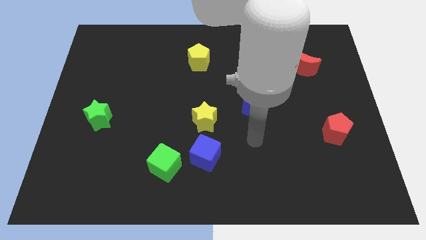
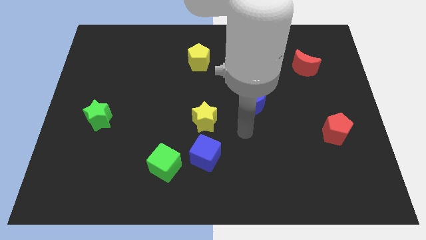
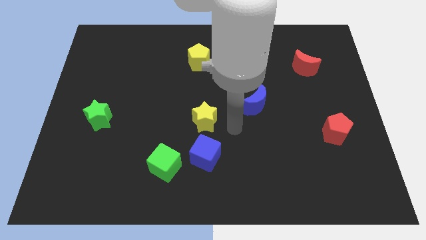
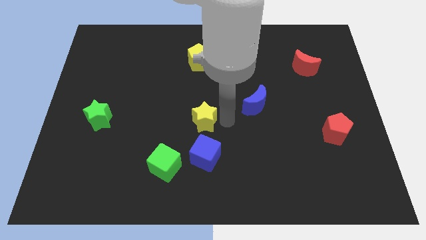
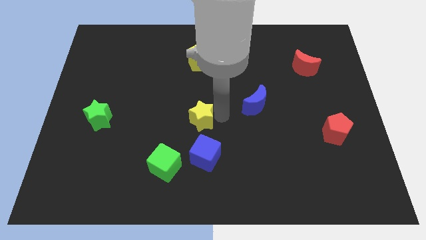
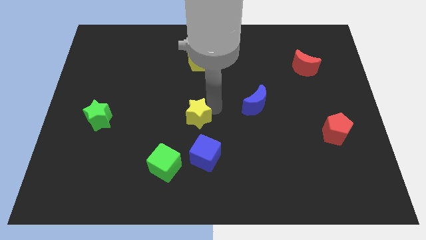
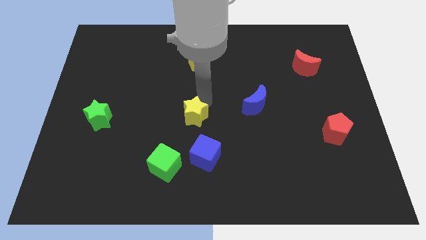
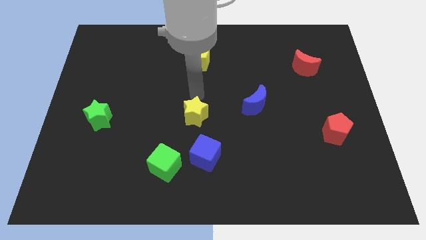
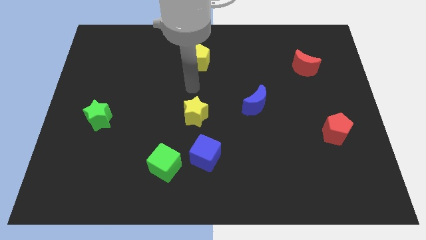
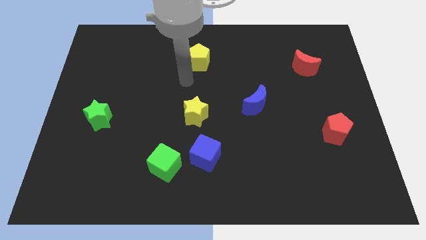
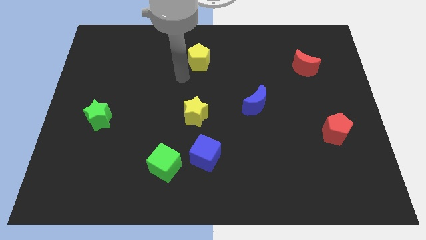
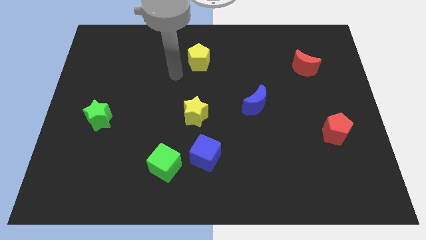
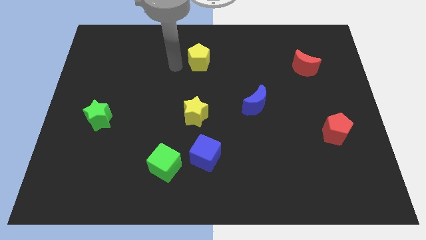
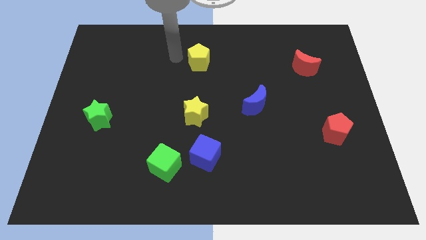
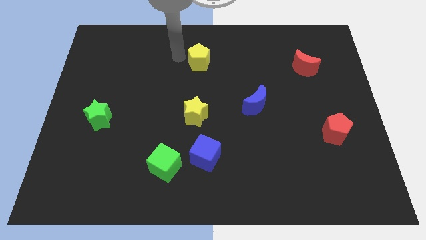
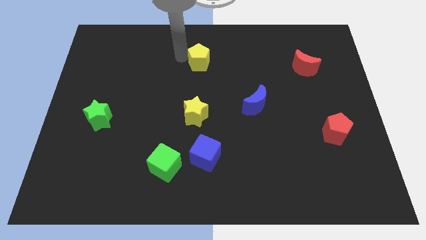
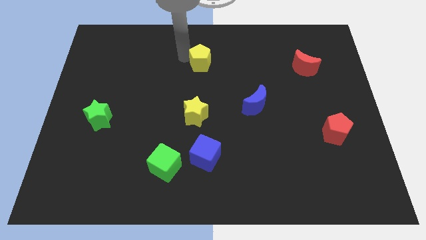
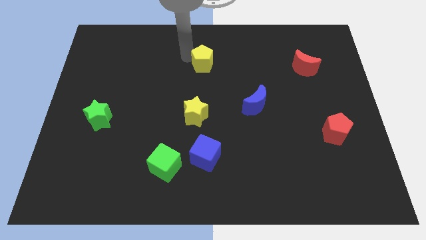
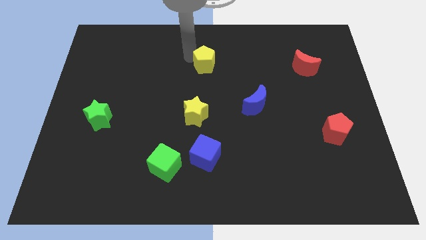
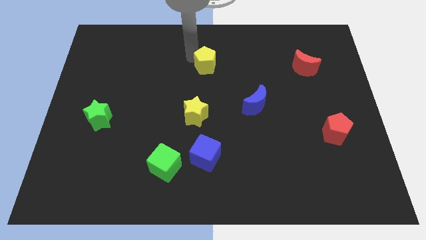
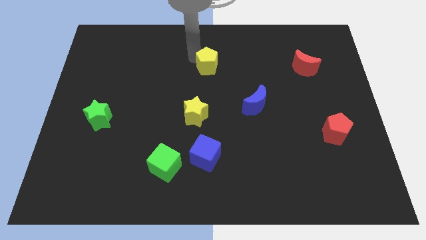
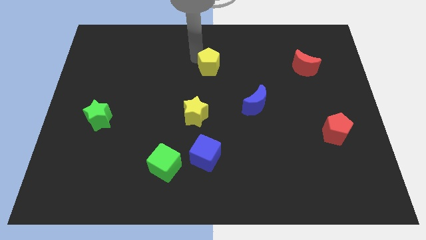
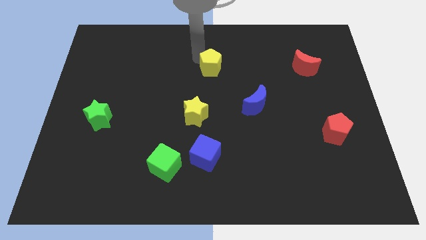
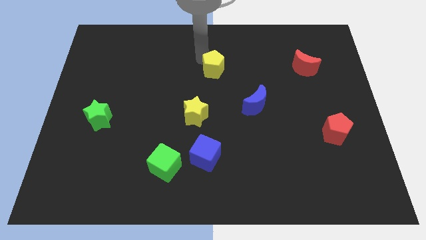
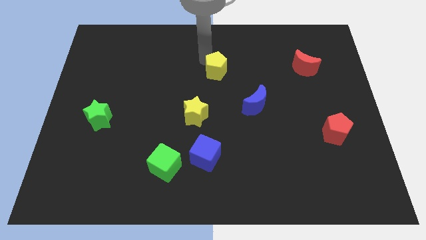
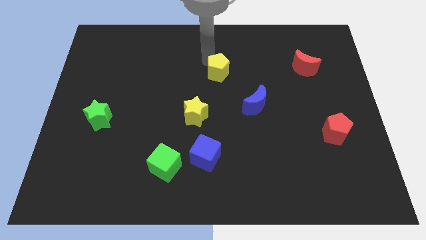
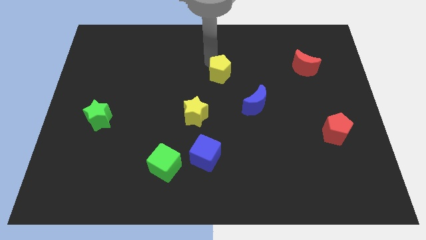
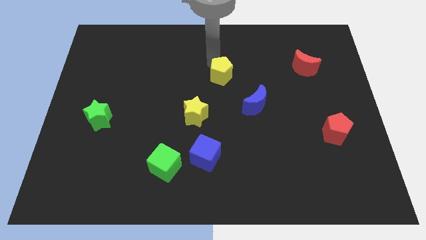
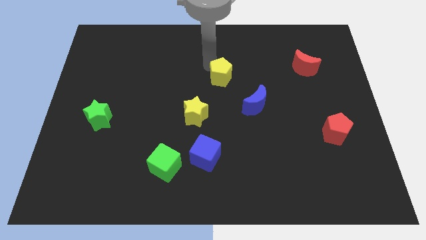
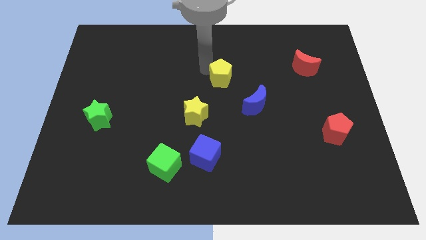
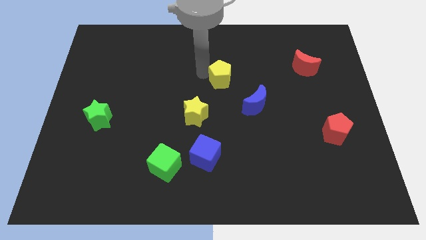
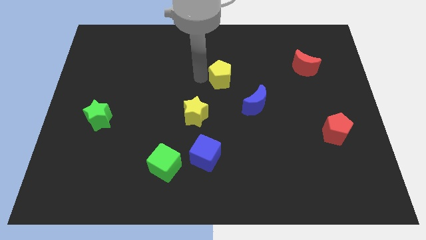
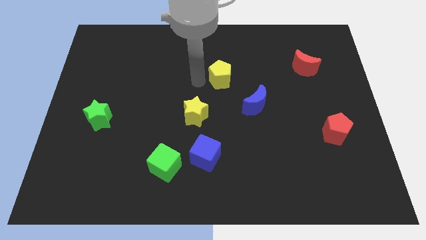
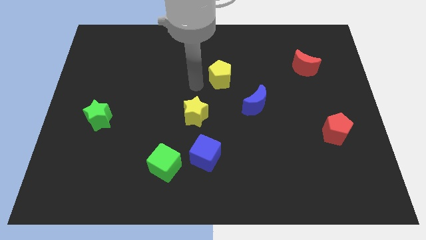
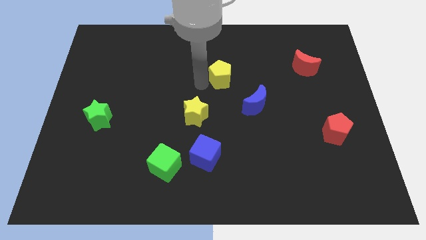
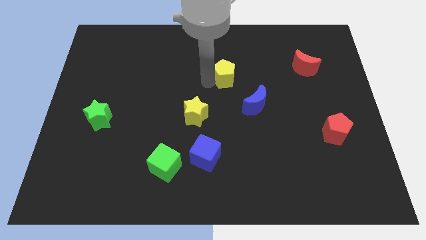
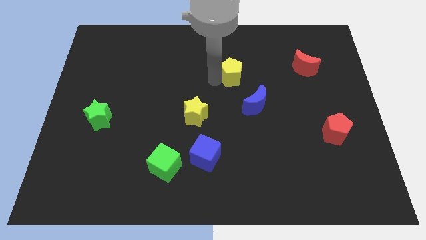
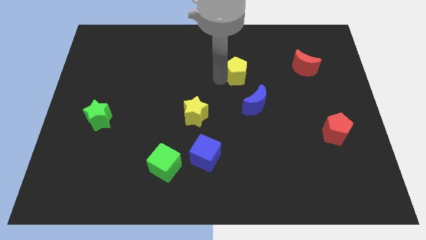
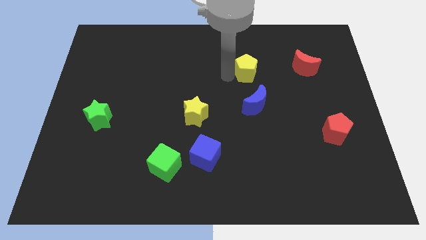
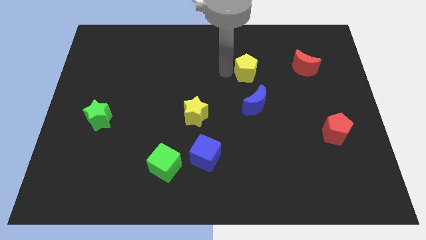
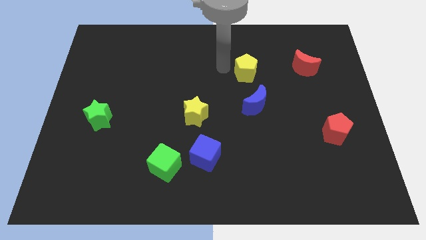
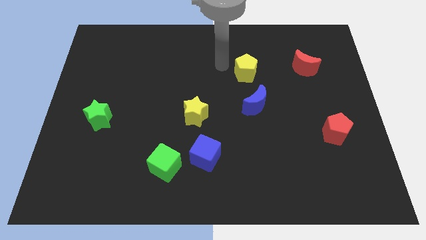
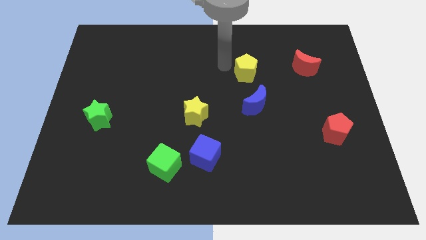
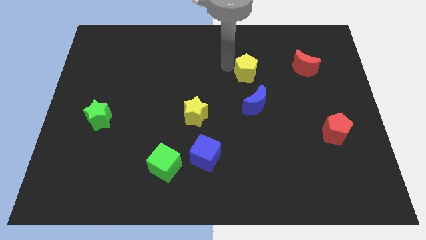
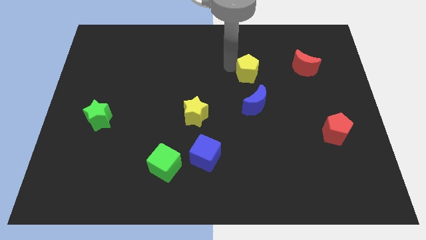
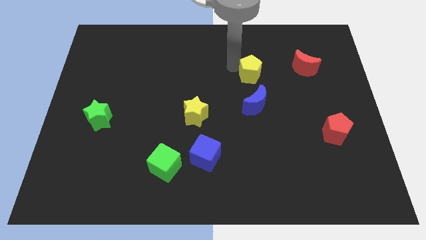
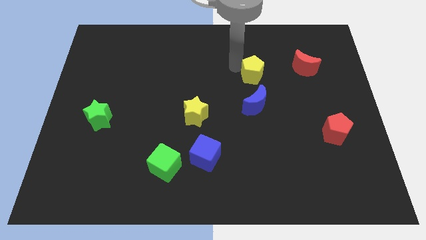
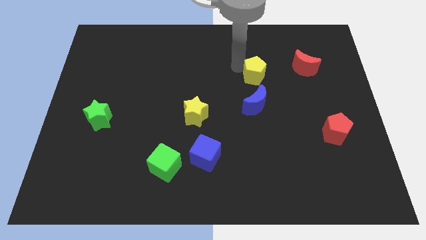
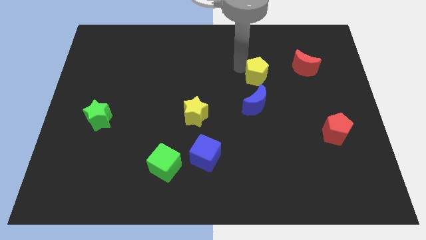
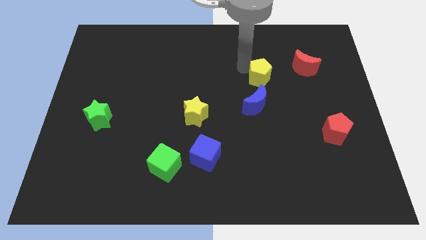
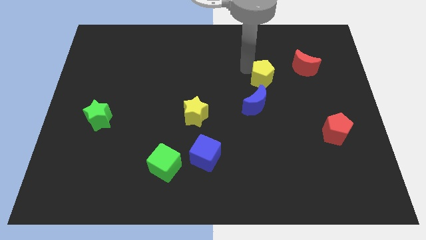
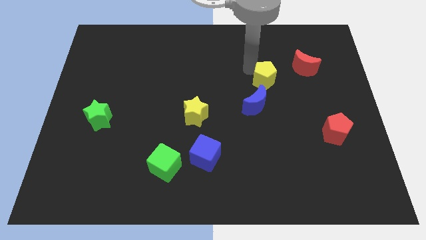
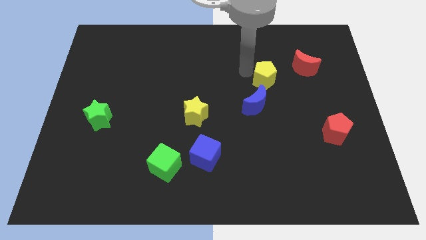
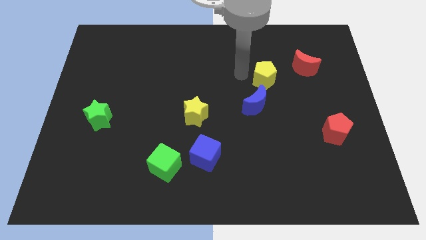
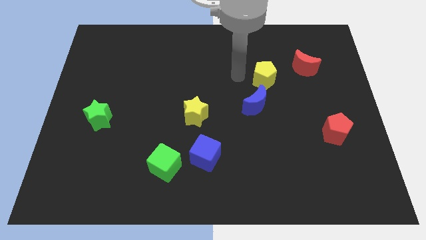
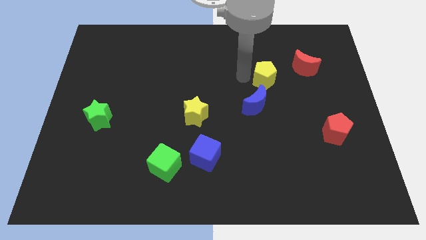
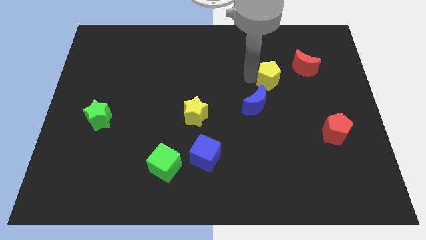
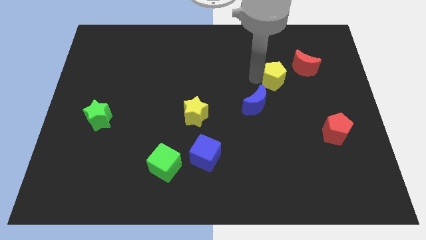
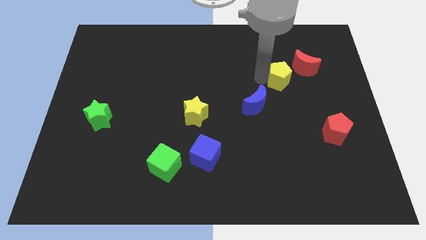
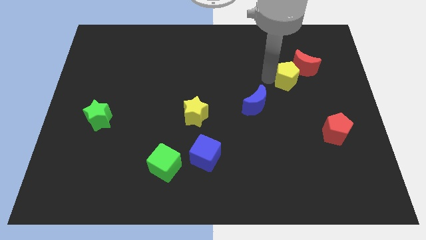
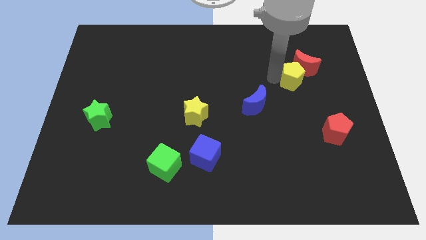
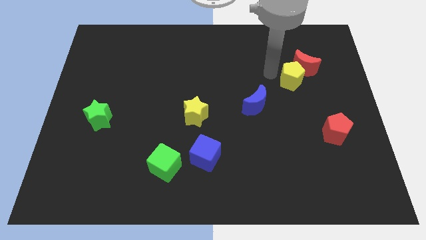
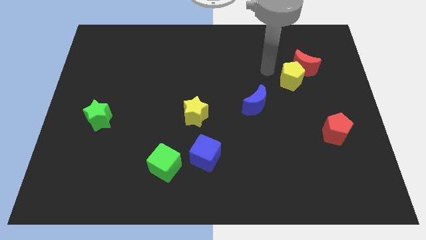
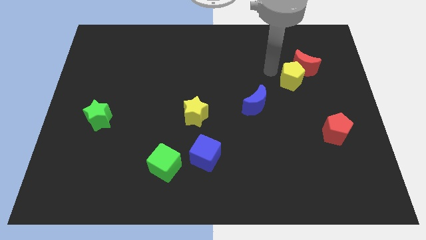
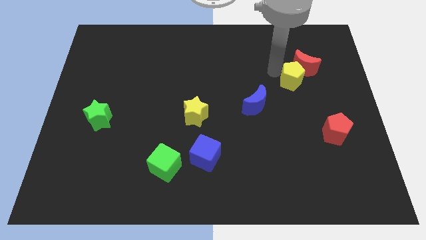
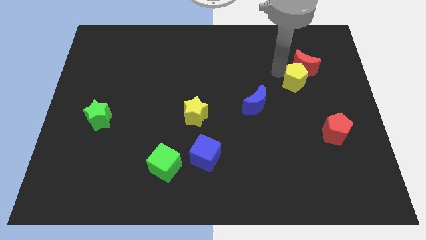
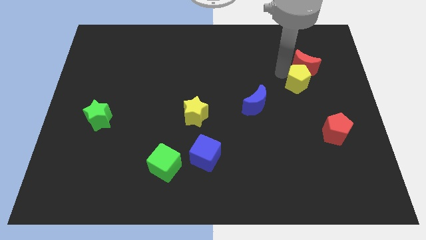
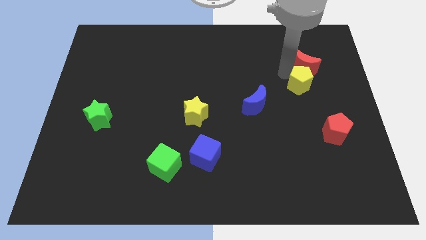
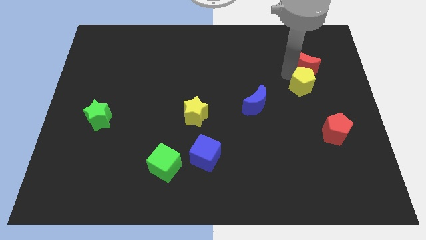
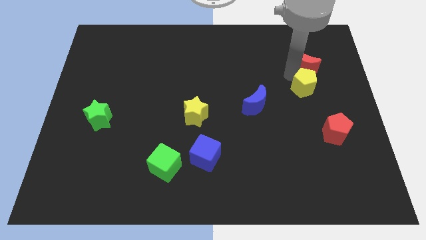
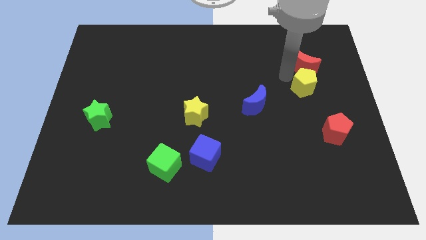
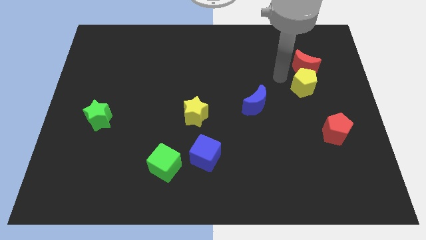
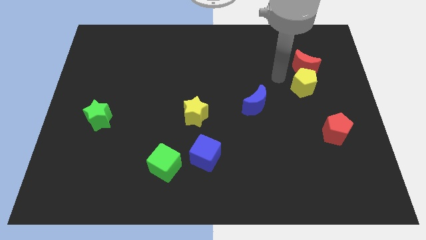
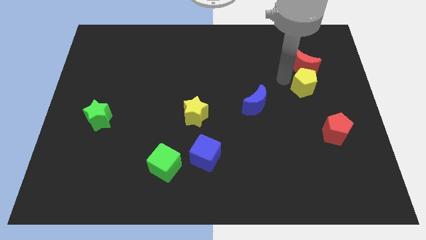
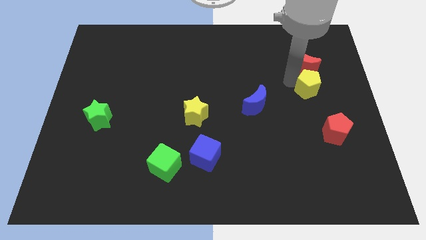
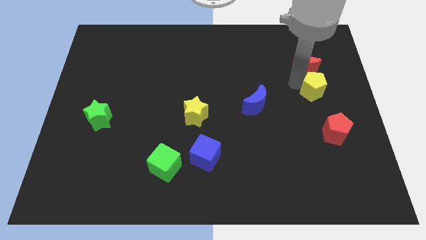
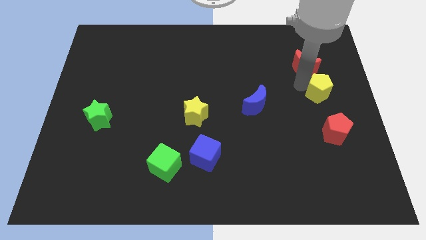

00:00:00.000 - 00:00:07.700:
push the yellow pentagon to the center right
